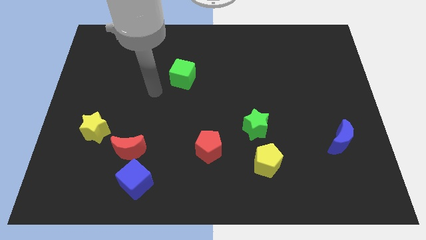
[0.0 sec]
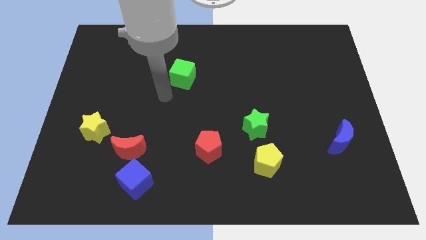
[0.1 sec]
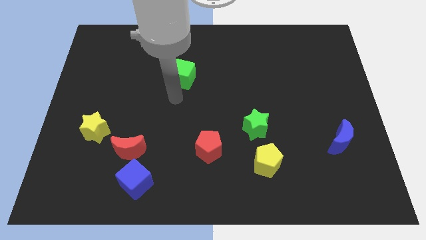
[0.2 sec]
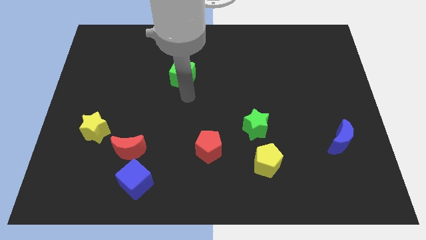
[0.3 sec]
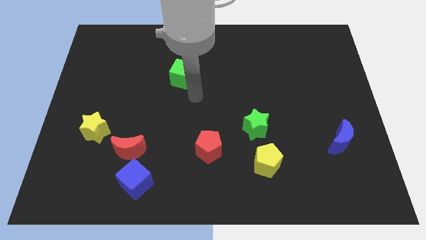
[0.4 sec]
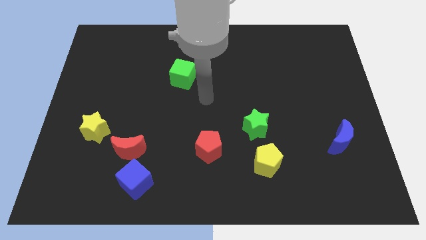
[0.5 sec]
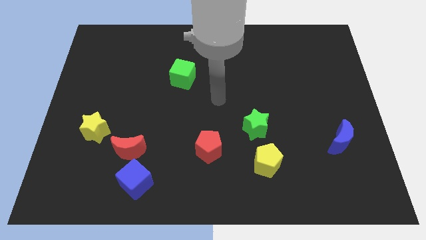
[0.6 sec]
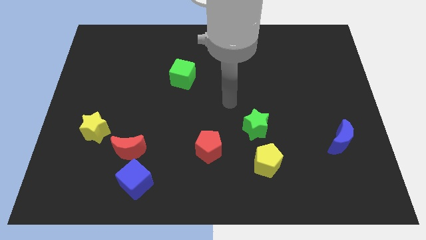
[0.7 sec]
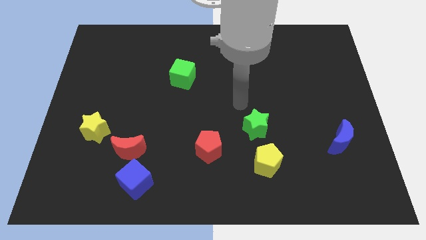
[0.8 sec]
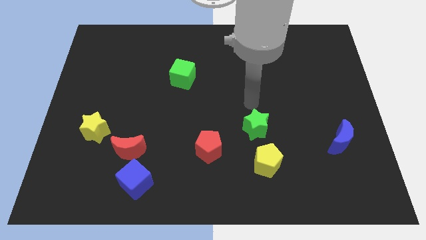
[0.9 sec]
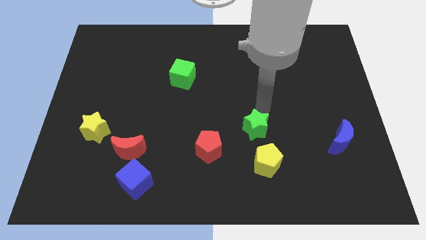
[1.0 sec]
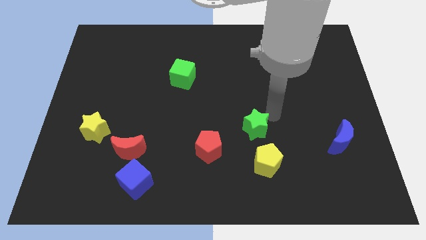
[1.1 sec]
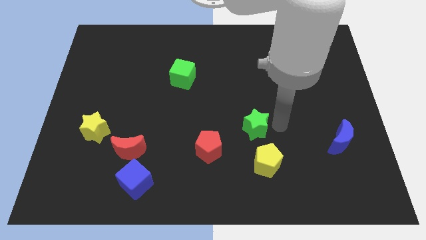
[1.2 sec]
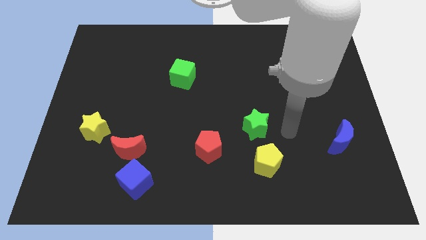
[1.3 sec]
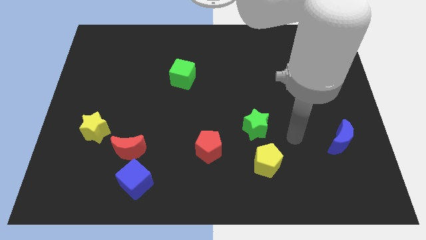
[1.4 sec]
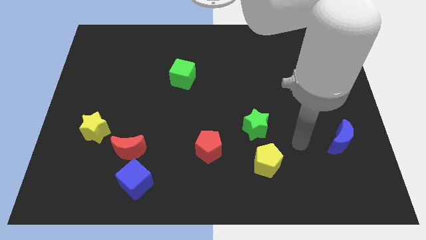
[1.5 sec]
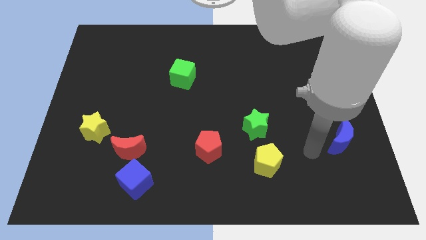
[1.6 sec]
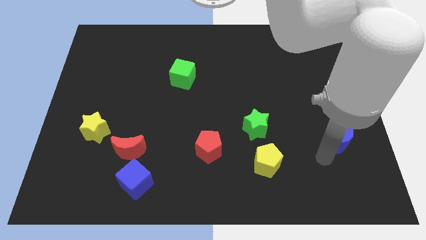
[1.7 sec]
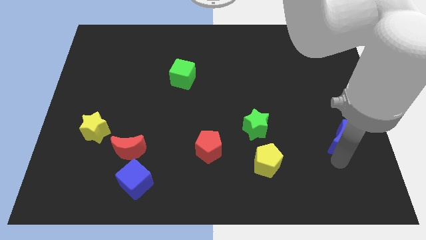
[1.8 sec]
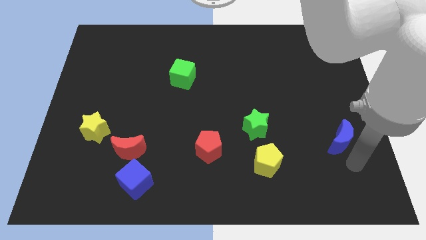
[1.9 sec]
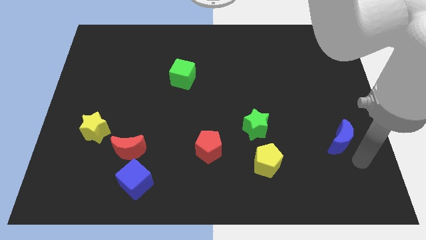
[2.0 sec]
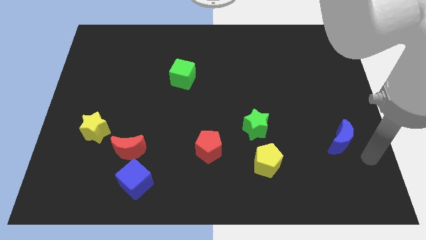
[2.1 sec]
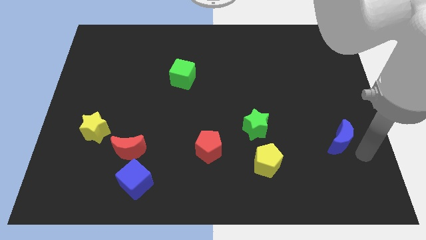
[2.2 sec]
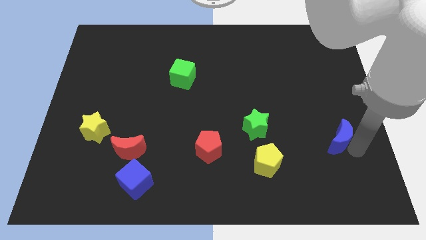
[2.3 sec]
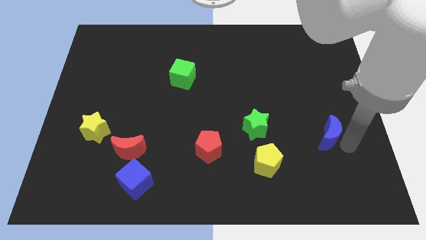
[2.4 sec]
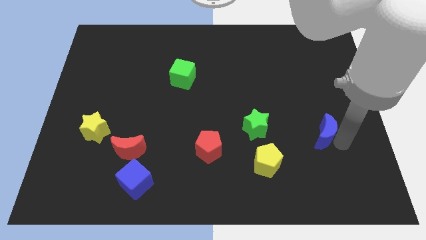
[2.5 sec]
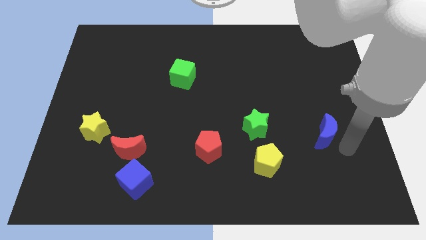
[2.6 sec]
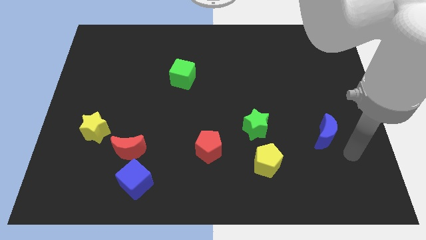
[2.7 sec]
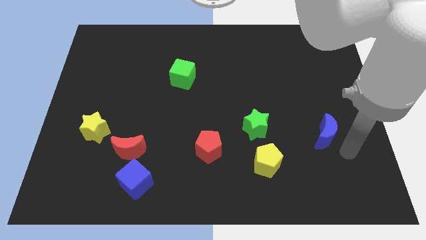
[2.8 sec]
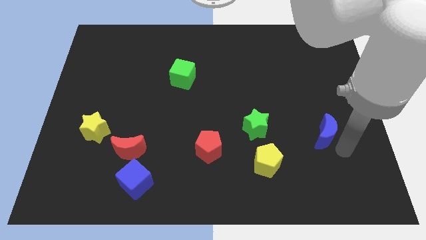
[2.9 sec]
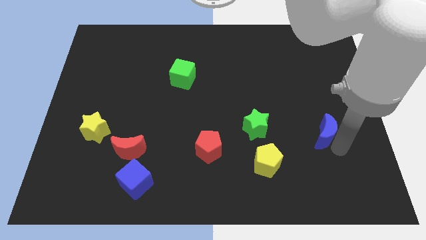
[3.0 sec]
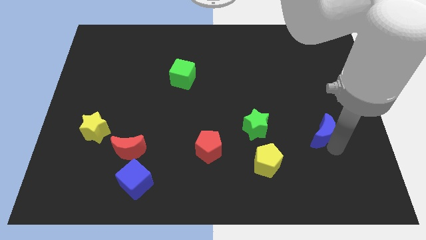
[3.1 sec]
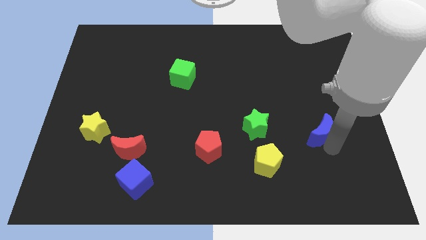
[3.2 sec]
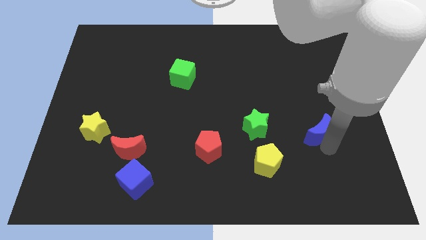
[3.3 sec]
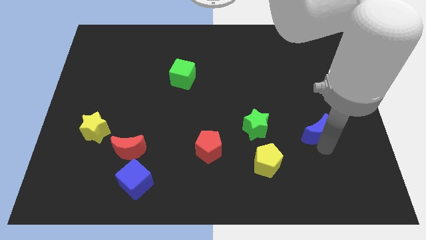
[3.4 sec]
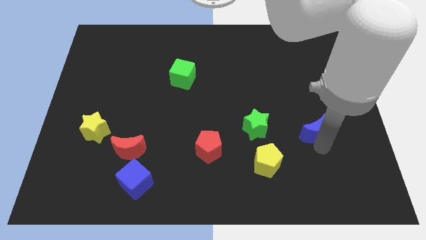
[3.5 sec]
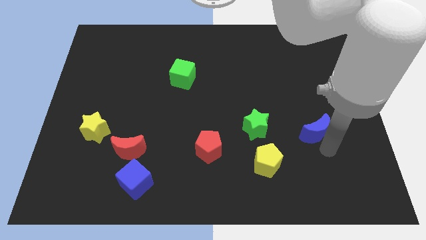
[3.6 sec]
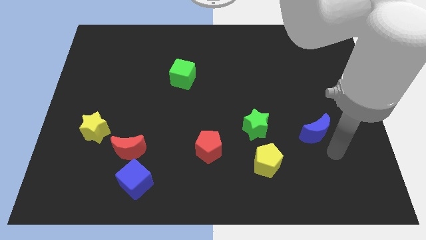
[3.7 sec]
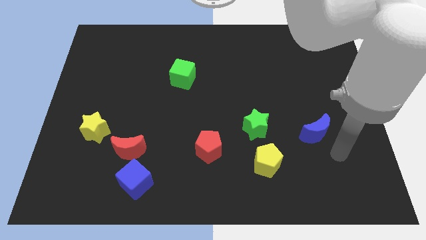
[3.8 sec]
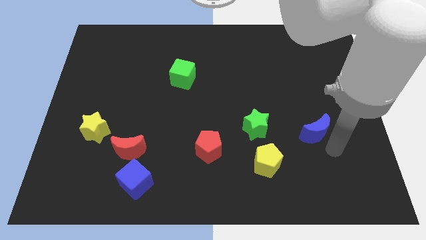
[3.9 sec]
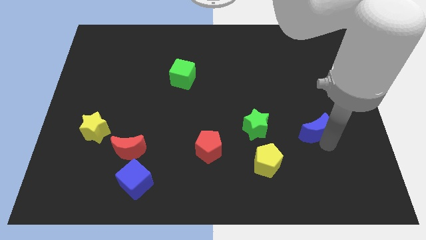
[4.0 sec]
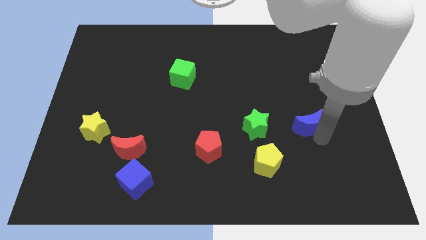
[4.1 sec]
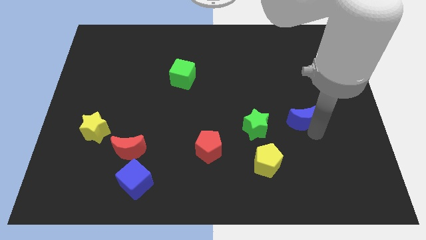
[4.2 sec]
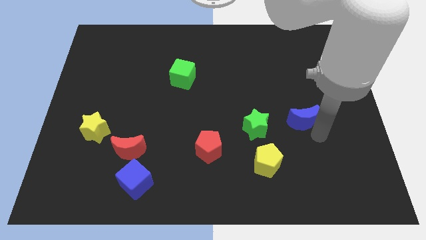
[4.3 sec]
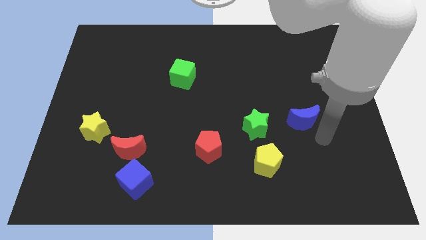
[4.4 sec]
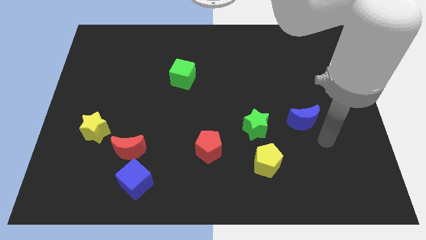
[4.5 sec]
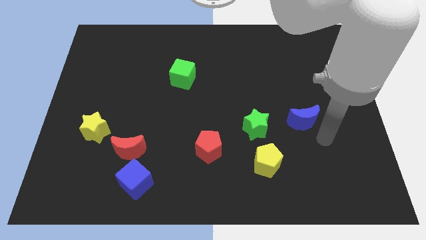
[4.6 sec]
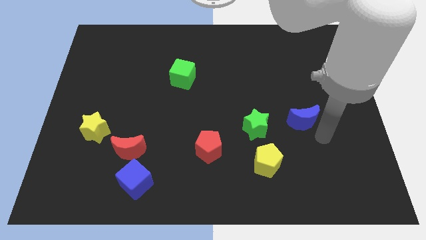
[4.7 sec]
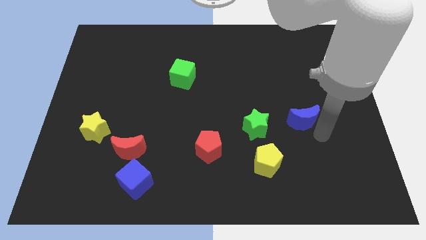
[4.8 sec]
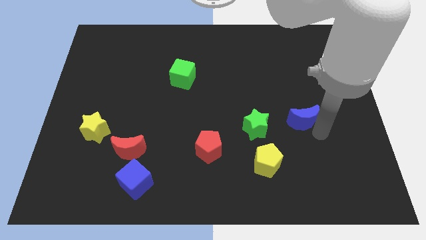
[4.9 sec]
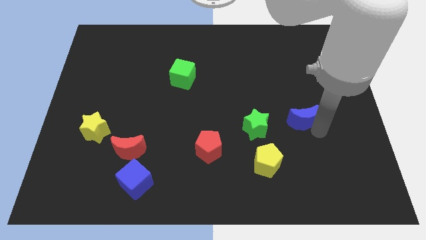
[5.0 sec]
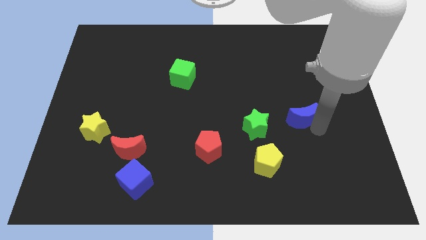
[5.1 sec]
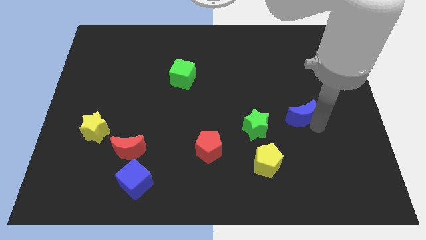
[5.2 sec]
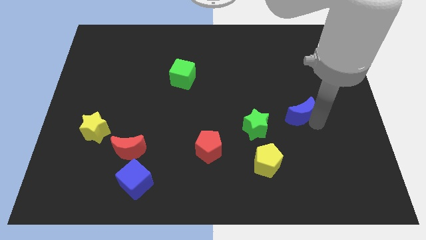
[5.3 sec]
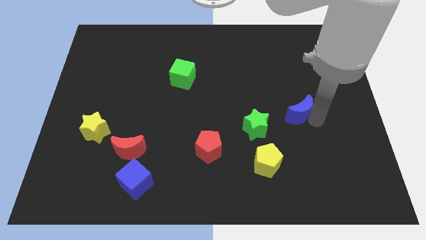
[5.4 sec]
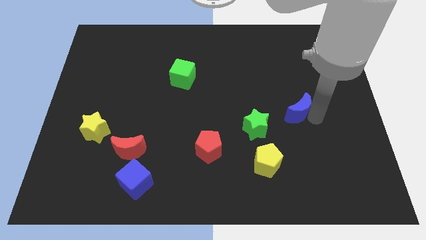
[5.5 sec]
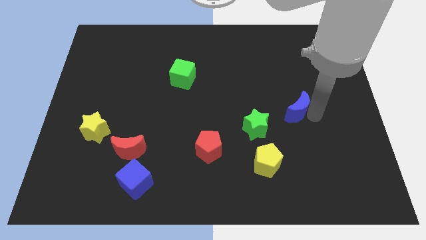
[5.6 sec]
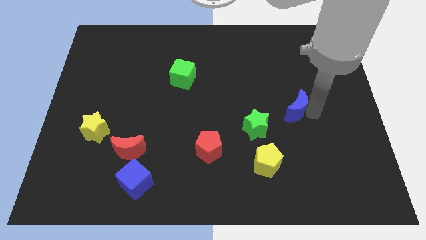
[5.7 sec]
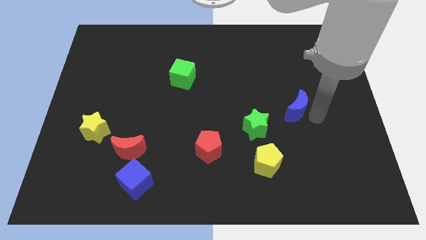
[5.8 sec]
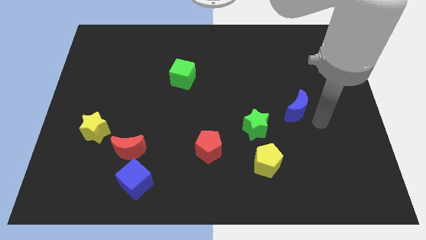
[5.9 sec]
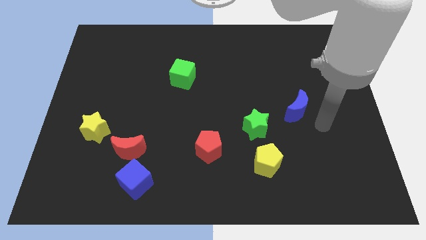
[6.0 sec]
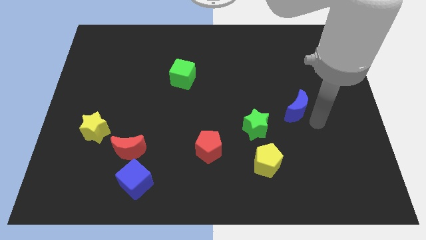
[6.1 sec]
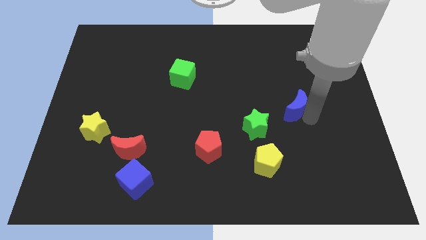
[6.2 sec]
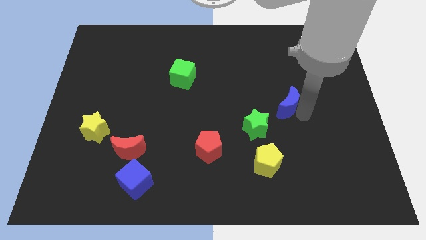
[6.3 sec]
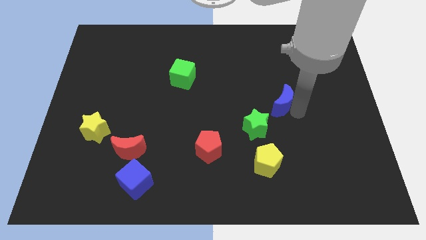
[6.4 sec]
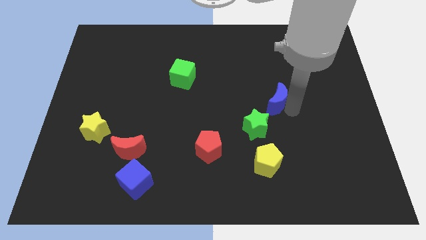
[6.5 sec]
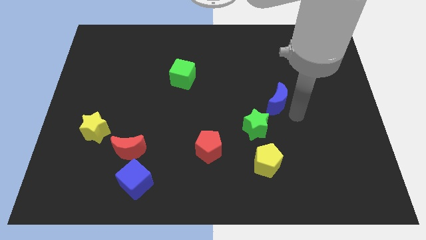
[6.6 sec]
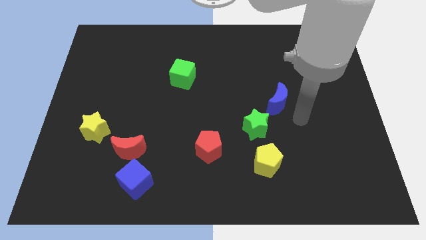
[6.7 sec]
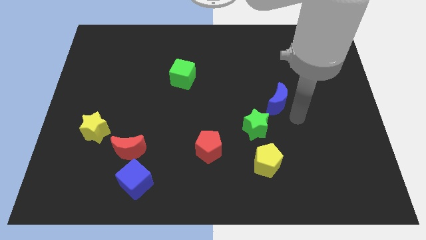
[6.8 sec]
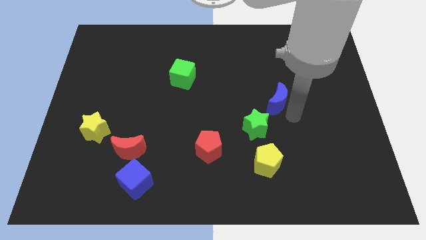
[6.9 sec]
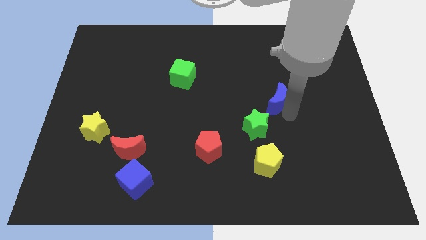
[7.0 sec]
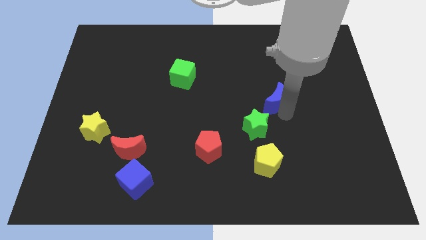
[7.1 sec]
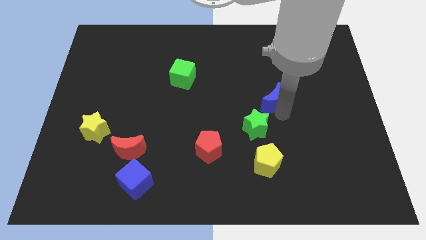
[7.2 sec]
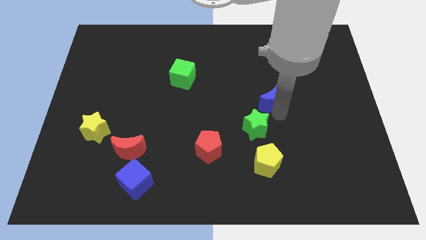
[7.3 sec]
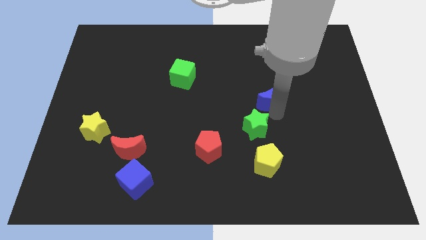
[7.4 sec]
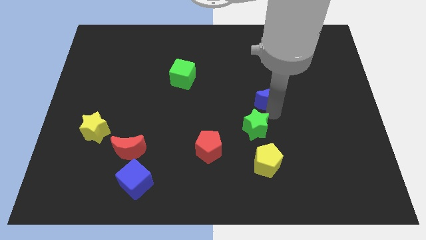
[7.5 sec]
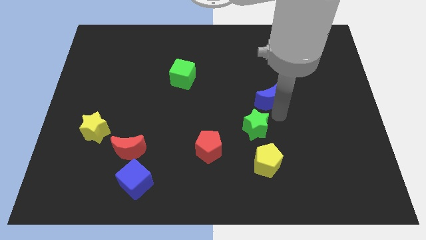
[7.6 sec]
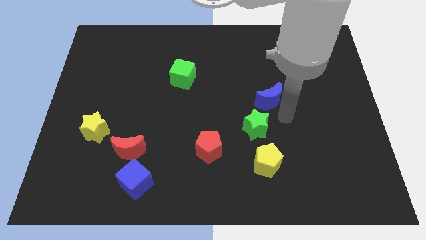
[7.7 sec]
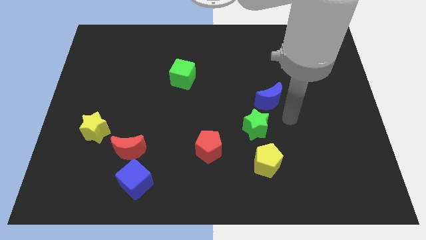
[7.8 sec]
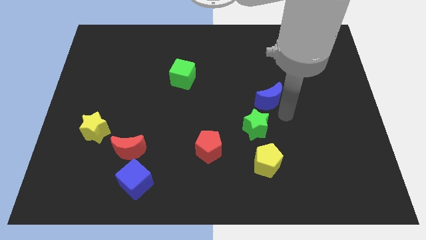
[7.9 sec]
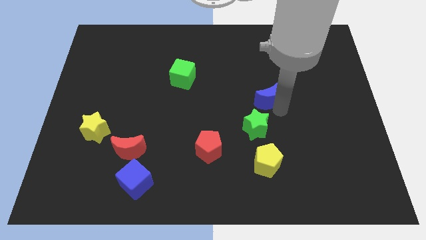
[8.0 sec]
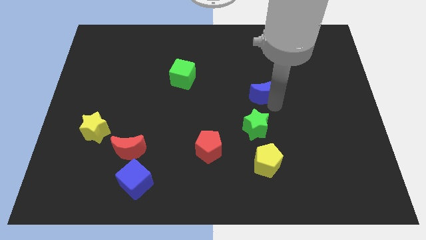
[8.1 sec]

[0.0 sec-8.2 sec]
push the blue moon diagonally up and to the left
